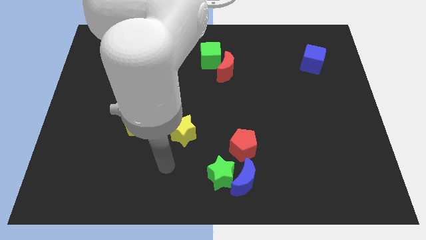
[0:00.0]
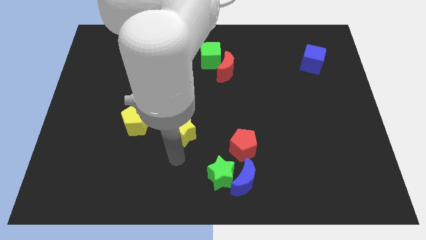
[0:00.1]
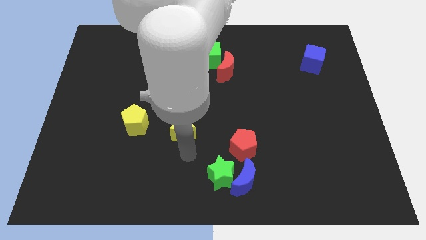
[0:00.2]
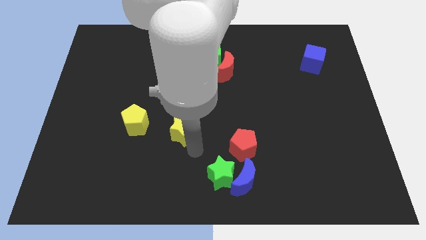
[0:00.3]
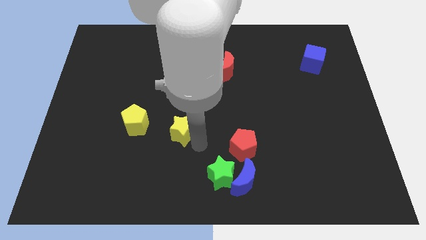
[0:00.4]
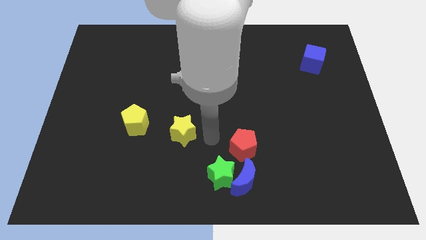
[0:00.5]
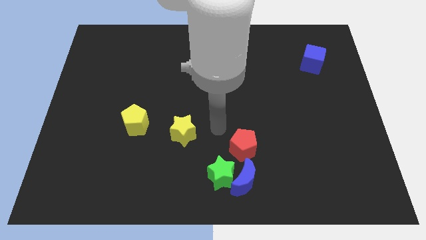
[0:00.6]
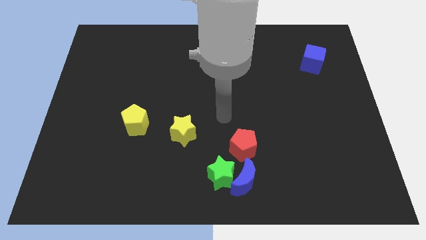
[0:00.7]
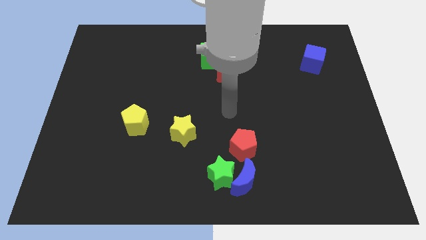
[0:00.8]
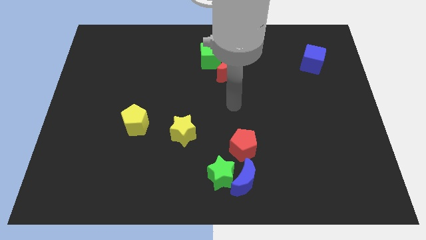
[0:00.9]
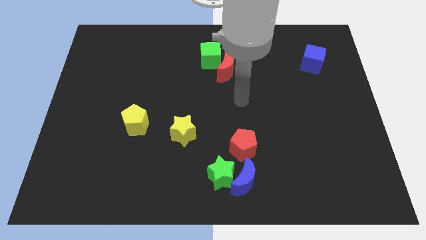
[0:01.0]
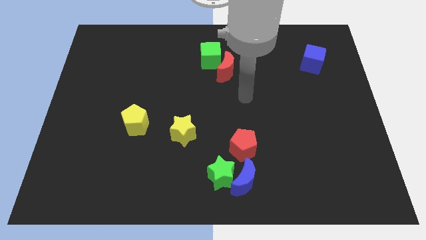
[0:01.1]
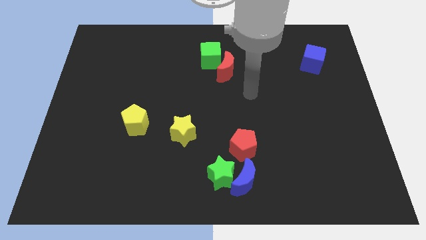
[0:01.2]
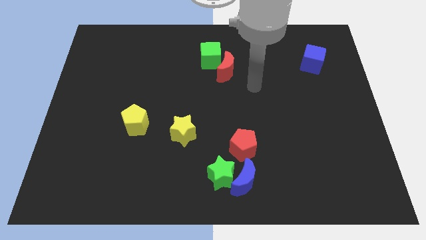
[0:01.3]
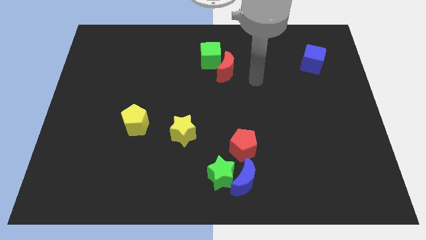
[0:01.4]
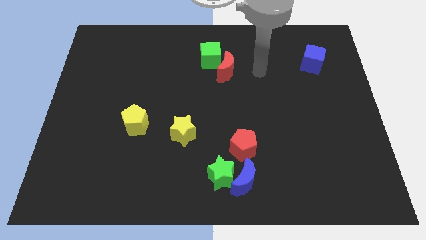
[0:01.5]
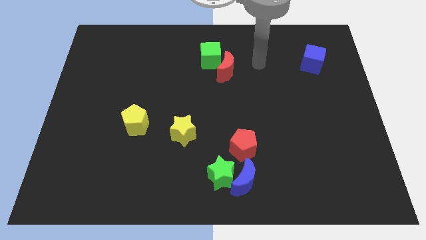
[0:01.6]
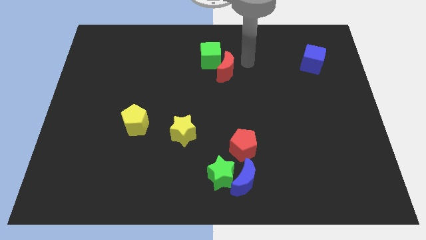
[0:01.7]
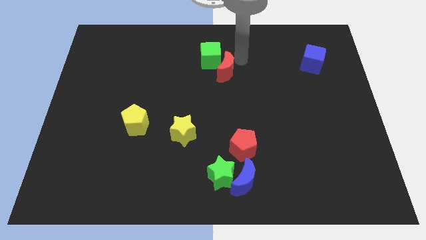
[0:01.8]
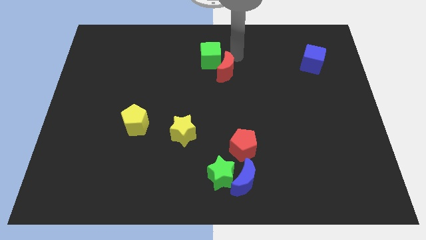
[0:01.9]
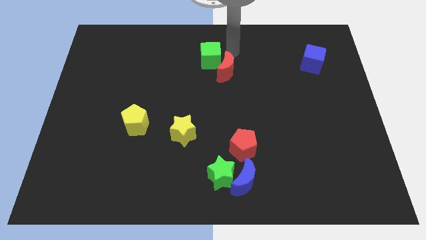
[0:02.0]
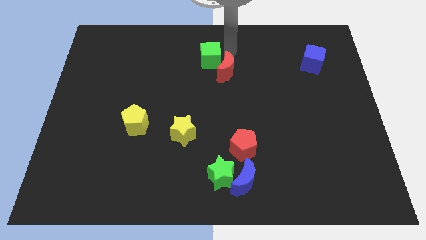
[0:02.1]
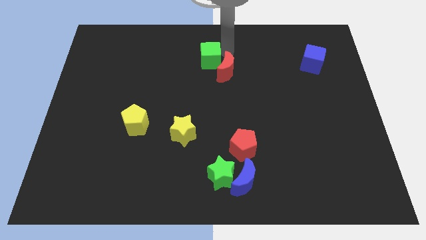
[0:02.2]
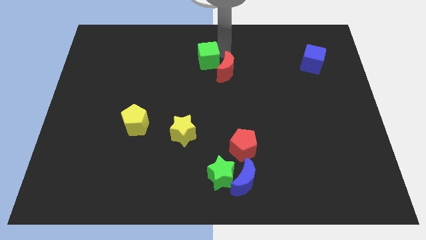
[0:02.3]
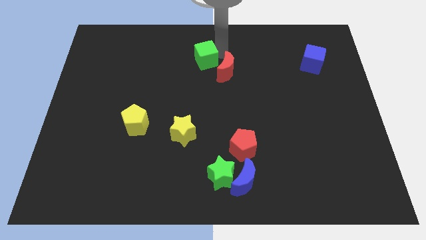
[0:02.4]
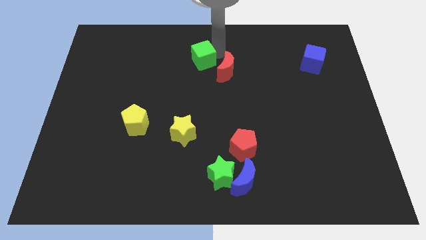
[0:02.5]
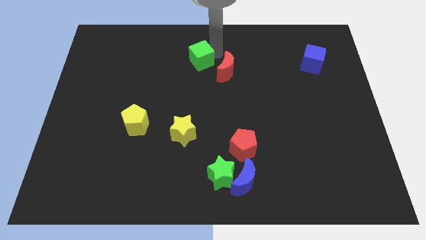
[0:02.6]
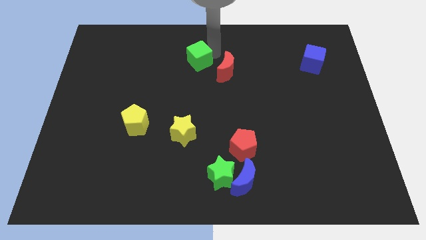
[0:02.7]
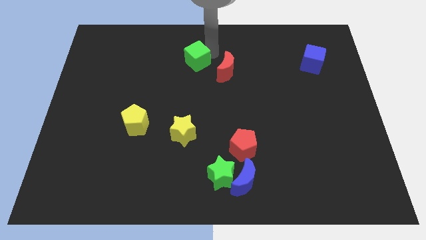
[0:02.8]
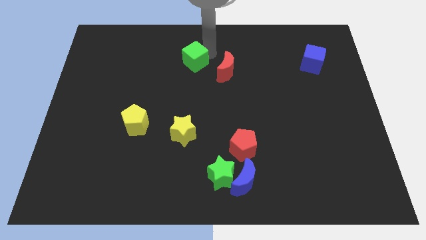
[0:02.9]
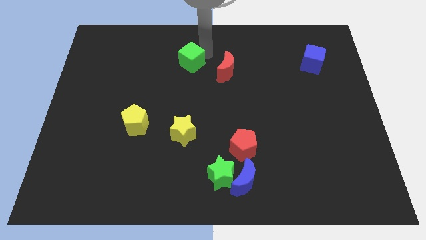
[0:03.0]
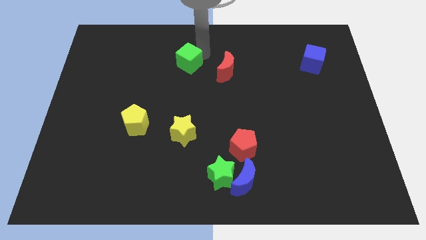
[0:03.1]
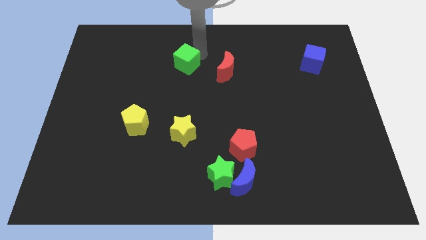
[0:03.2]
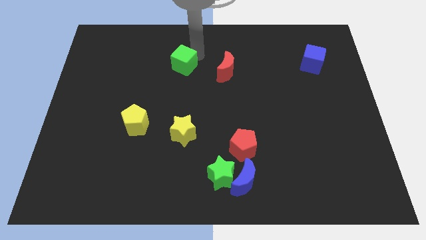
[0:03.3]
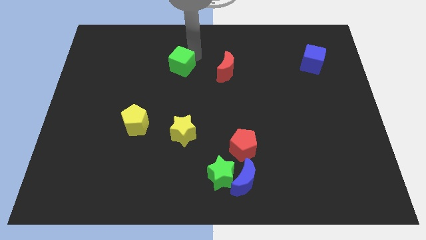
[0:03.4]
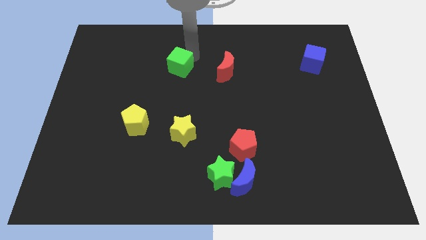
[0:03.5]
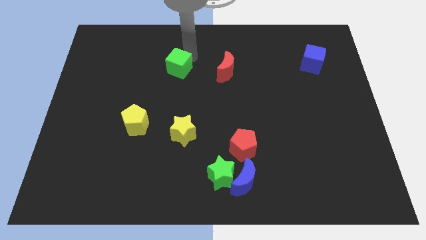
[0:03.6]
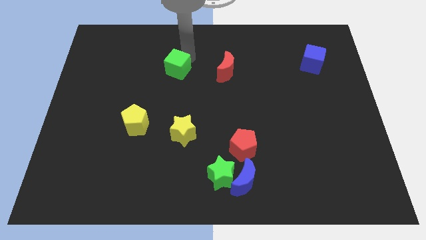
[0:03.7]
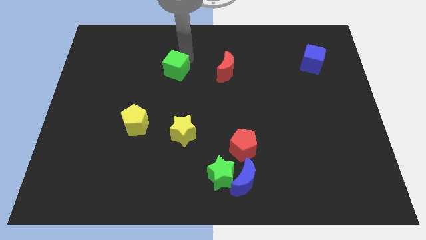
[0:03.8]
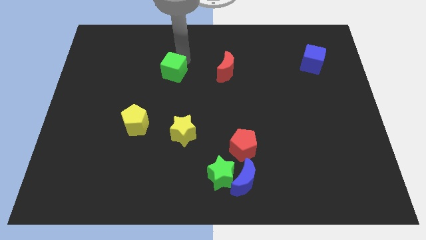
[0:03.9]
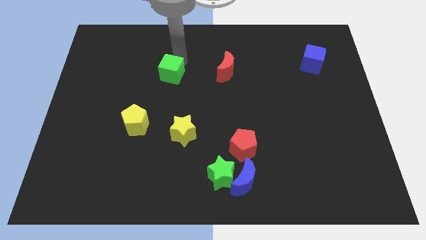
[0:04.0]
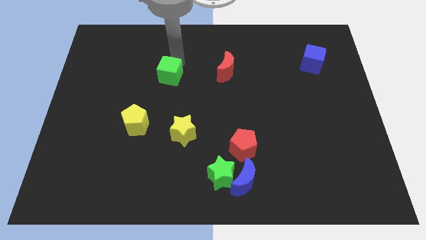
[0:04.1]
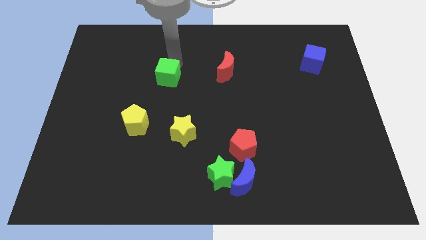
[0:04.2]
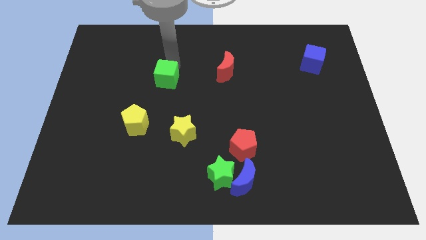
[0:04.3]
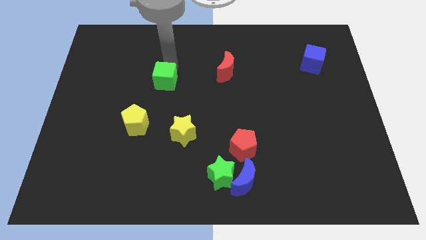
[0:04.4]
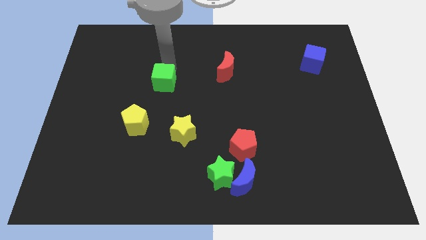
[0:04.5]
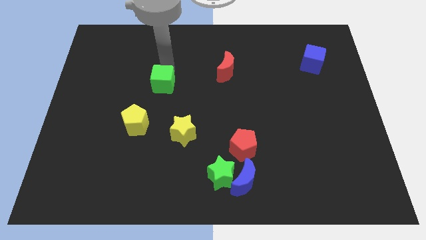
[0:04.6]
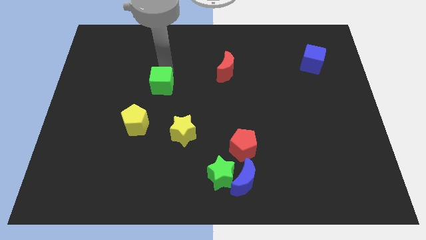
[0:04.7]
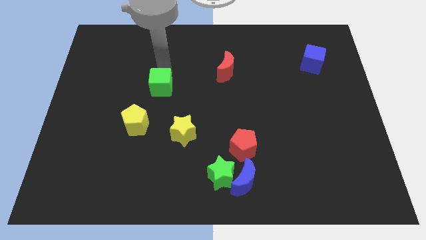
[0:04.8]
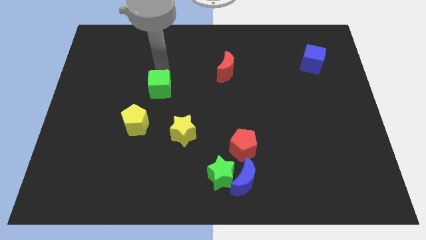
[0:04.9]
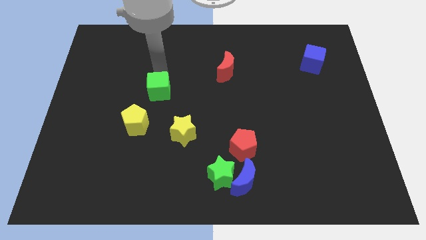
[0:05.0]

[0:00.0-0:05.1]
push the green cube diagonally up and to the right of the yellow pentagon

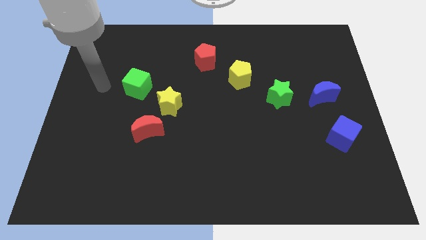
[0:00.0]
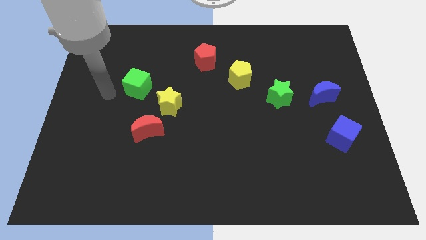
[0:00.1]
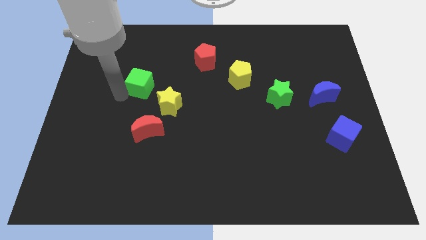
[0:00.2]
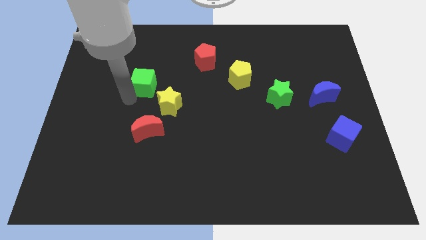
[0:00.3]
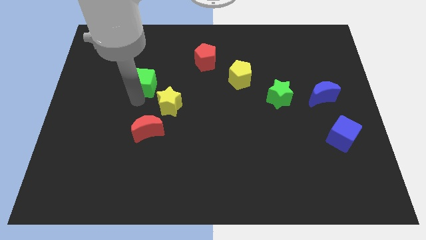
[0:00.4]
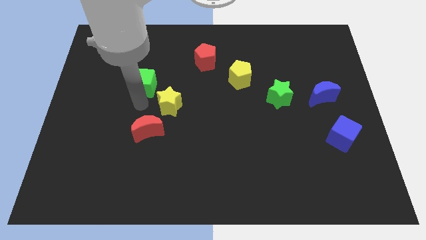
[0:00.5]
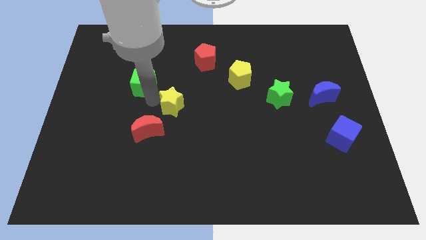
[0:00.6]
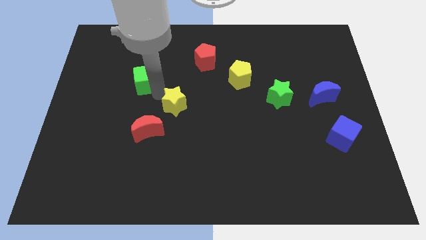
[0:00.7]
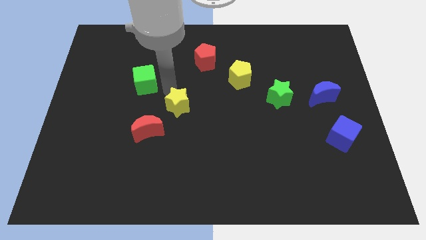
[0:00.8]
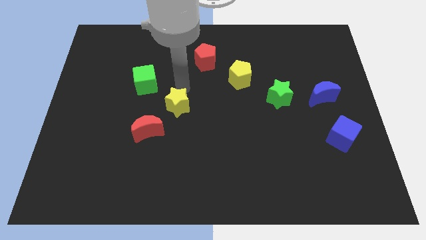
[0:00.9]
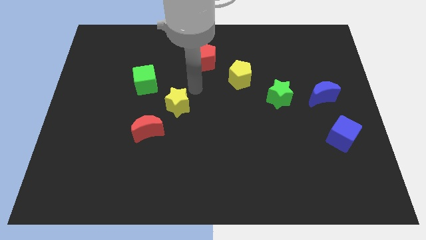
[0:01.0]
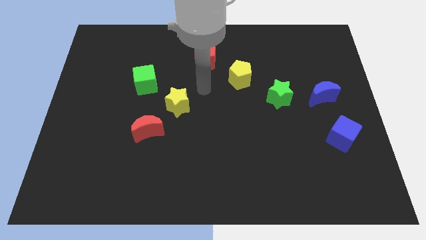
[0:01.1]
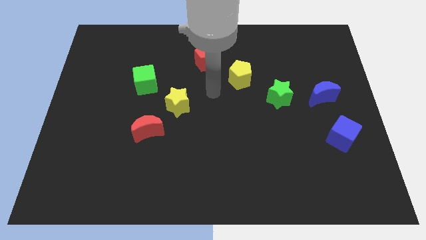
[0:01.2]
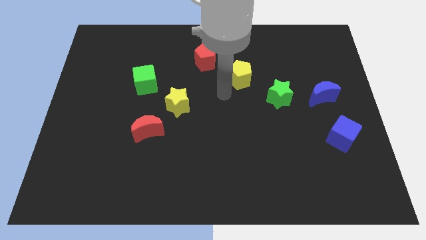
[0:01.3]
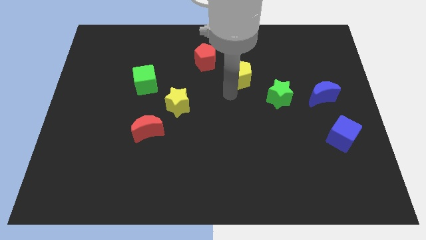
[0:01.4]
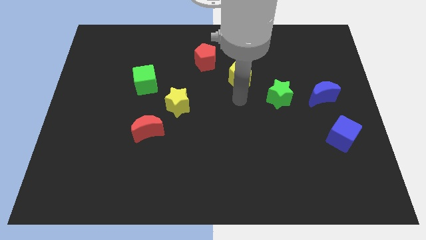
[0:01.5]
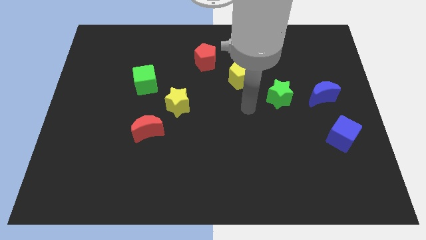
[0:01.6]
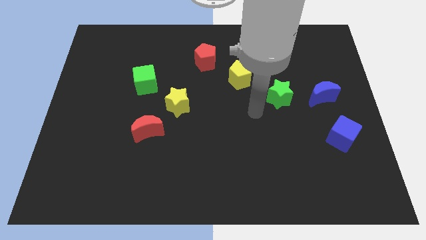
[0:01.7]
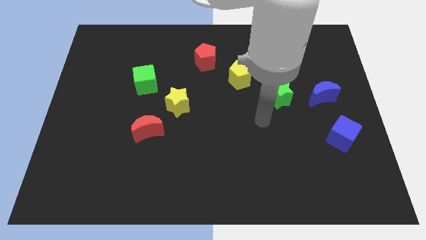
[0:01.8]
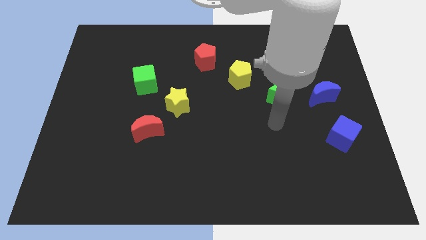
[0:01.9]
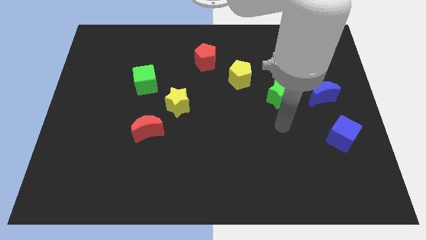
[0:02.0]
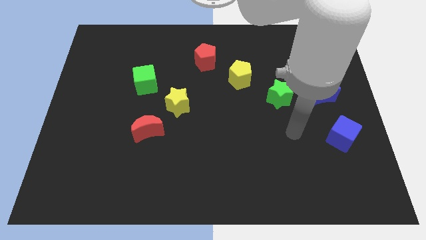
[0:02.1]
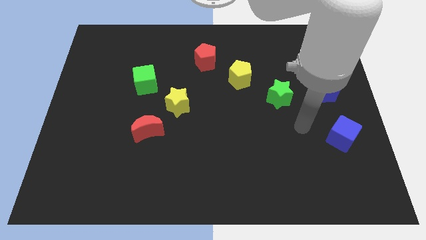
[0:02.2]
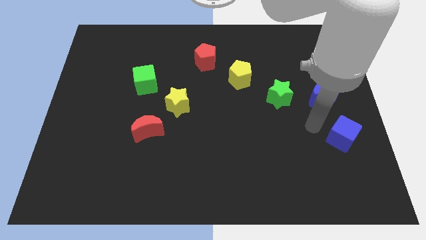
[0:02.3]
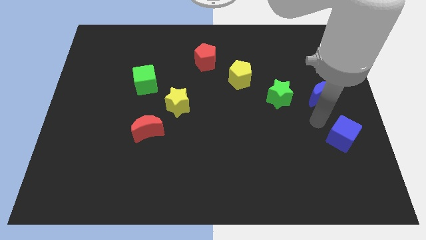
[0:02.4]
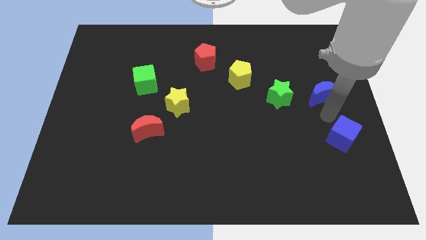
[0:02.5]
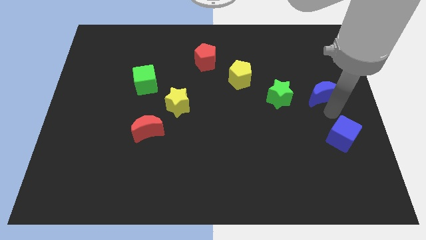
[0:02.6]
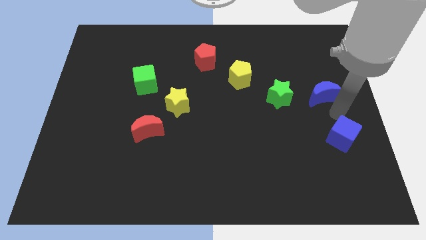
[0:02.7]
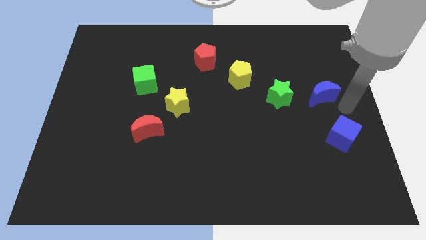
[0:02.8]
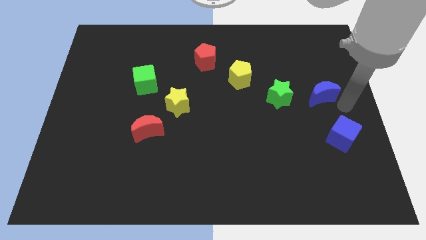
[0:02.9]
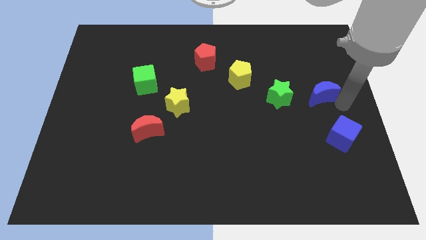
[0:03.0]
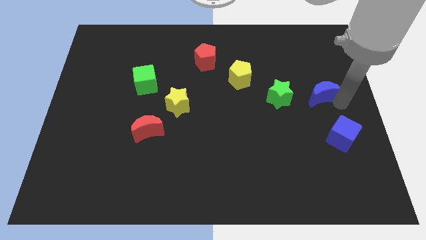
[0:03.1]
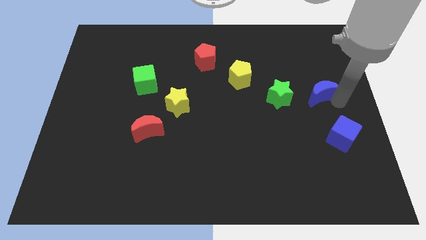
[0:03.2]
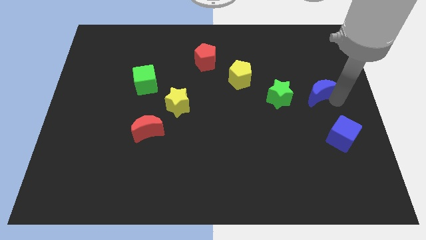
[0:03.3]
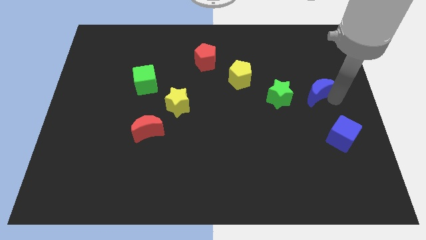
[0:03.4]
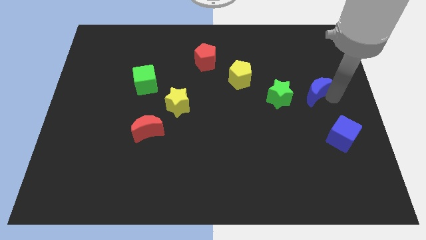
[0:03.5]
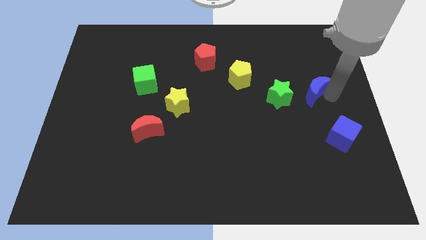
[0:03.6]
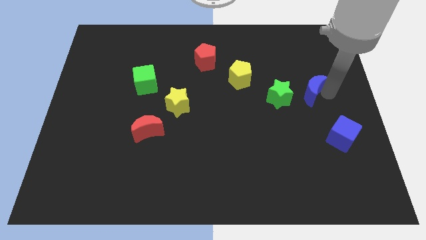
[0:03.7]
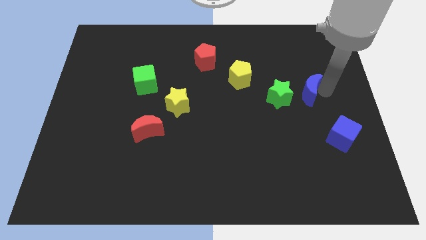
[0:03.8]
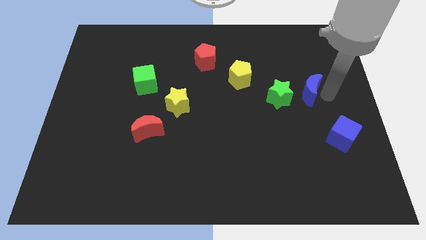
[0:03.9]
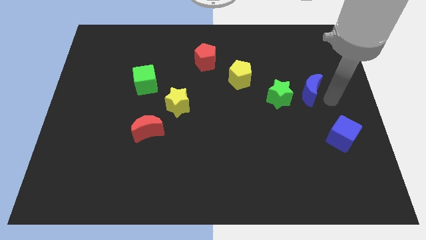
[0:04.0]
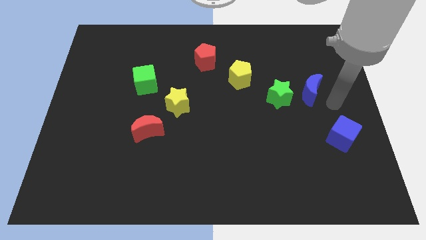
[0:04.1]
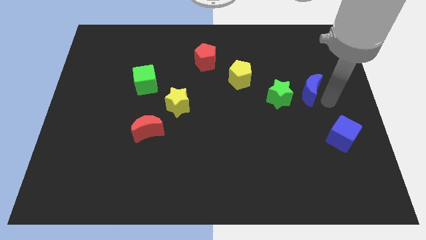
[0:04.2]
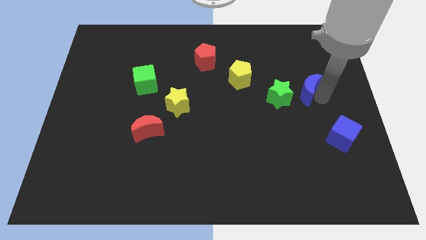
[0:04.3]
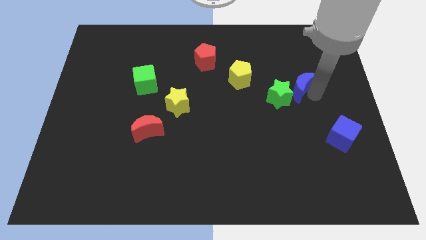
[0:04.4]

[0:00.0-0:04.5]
slide the blue moon just right of the yellow pentagon
